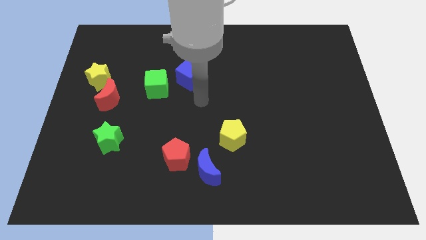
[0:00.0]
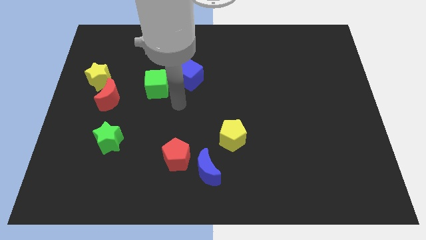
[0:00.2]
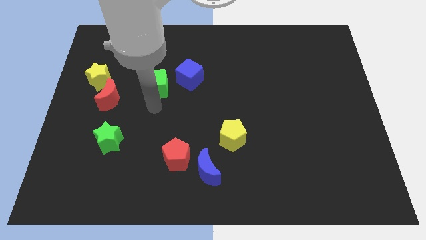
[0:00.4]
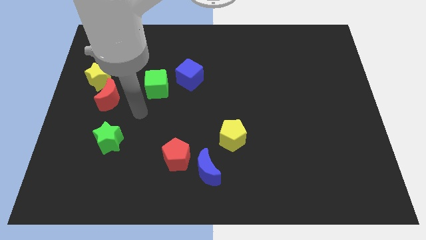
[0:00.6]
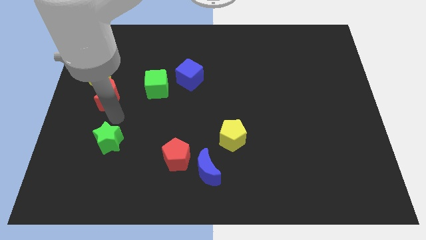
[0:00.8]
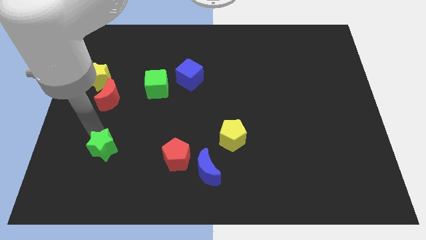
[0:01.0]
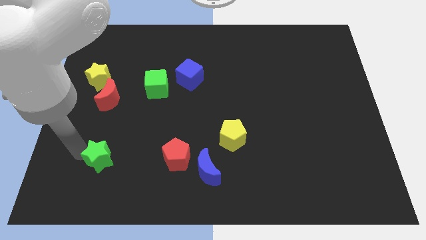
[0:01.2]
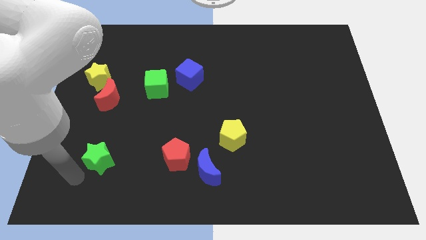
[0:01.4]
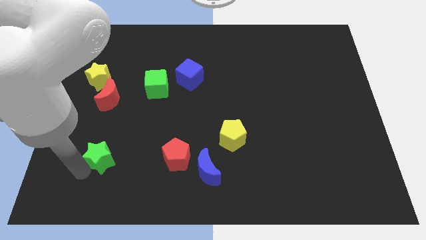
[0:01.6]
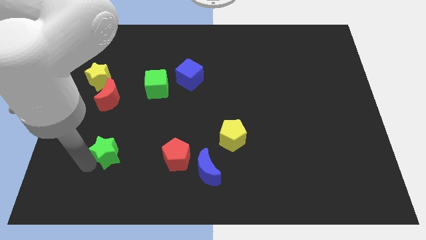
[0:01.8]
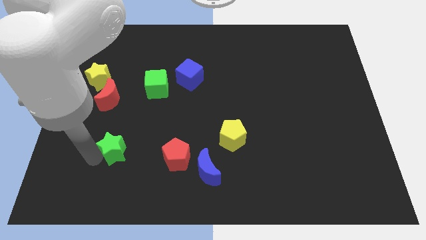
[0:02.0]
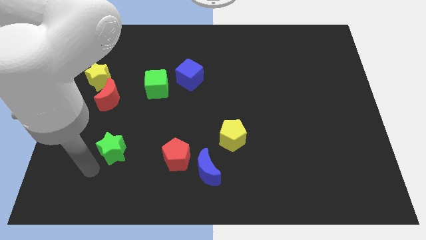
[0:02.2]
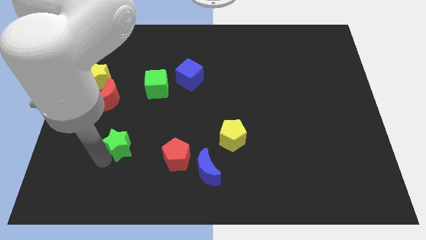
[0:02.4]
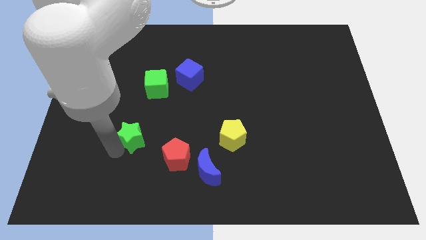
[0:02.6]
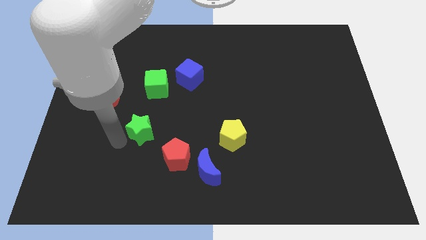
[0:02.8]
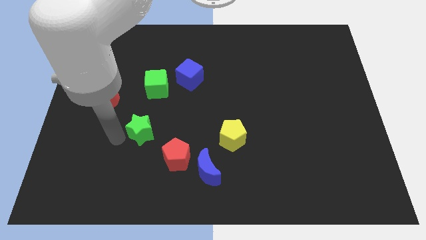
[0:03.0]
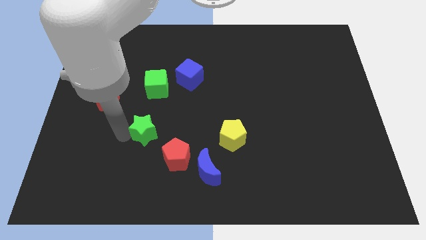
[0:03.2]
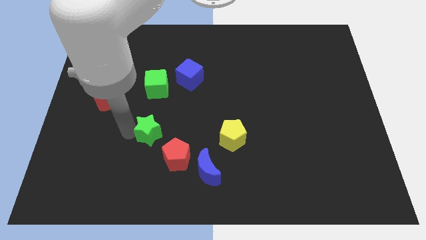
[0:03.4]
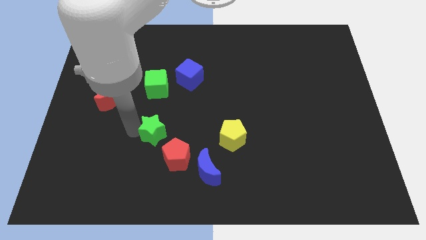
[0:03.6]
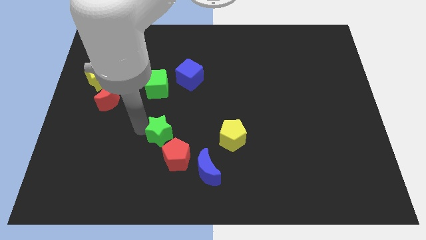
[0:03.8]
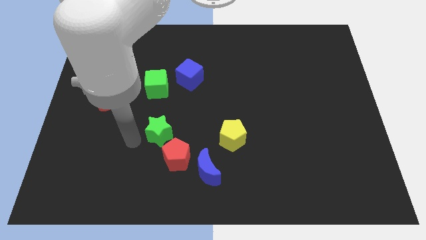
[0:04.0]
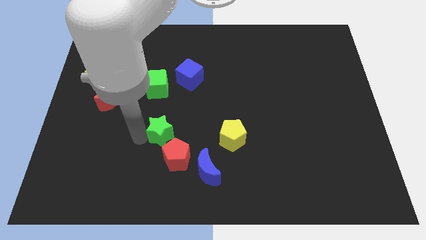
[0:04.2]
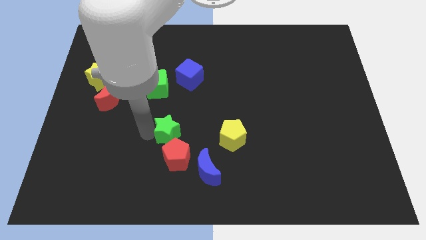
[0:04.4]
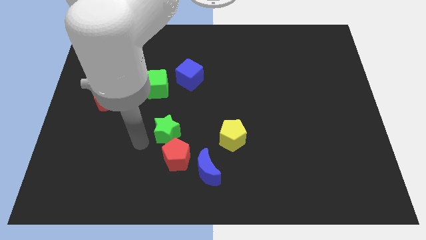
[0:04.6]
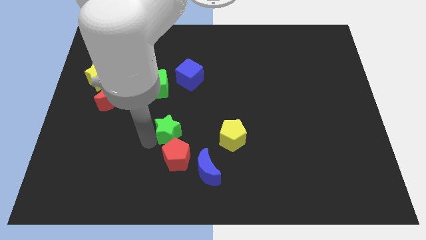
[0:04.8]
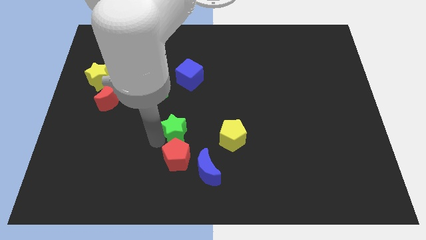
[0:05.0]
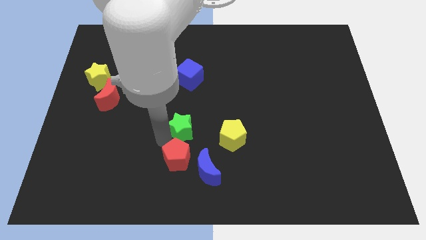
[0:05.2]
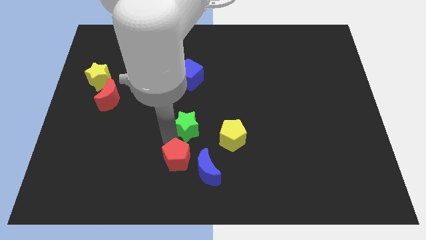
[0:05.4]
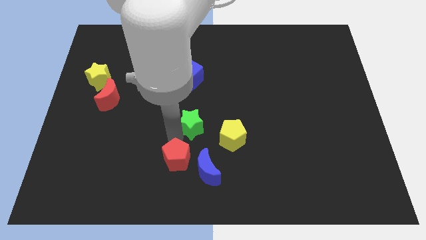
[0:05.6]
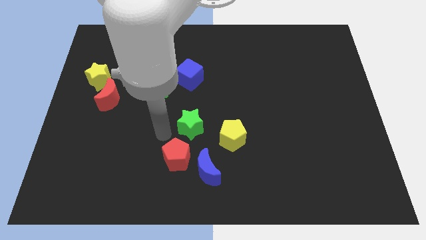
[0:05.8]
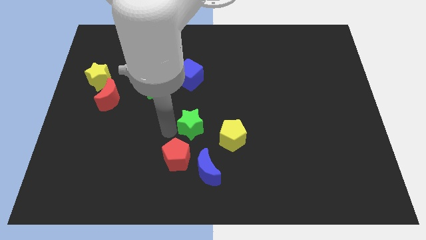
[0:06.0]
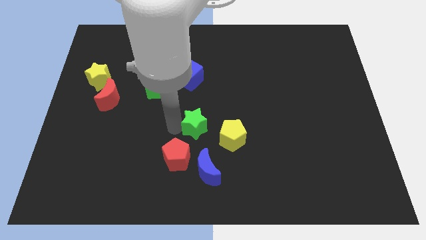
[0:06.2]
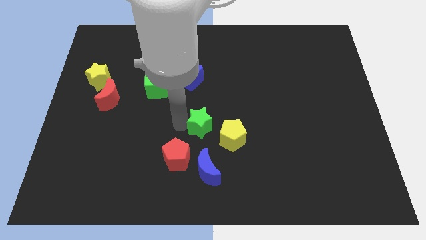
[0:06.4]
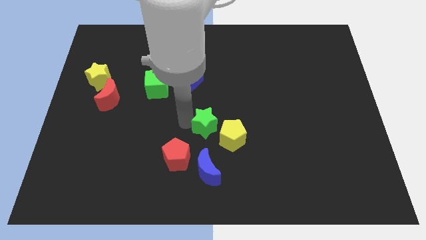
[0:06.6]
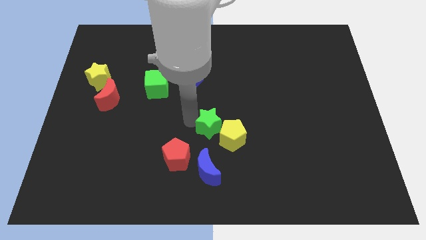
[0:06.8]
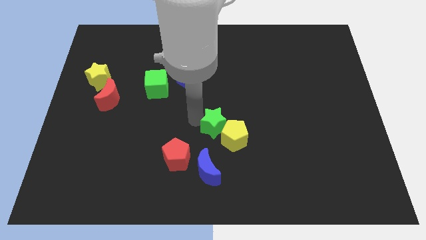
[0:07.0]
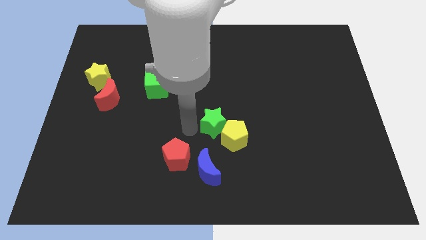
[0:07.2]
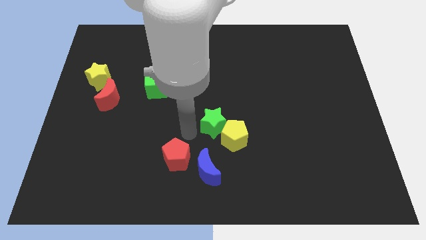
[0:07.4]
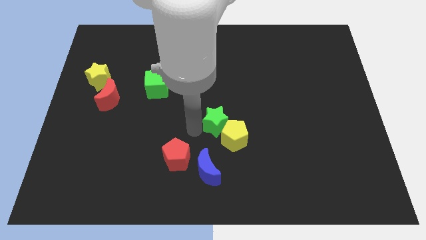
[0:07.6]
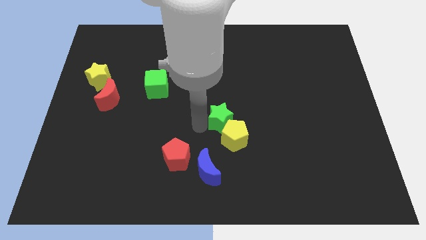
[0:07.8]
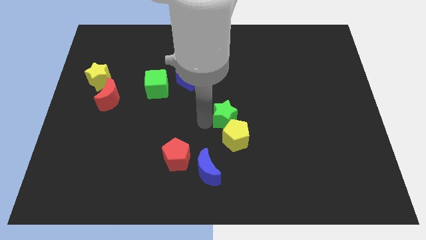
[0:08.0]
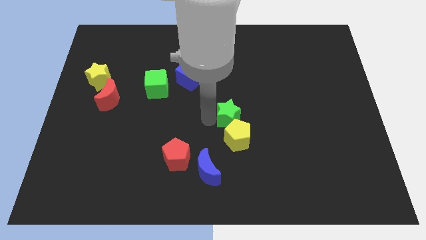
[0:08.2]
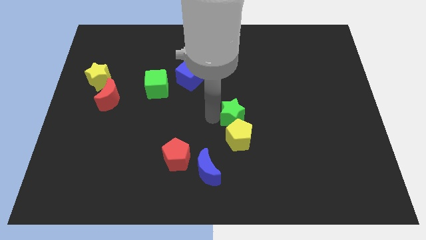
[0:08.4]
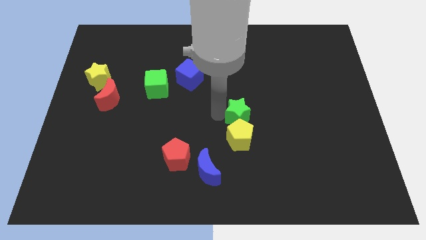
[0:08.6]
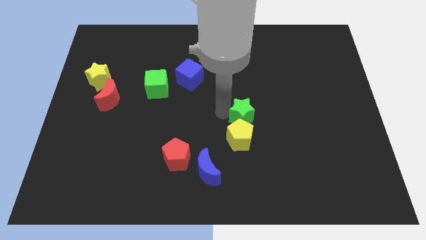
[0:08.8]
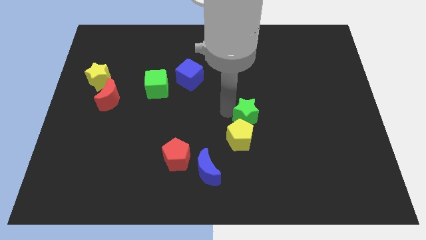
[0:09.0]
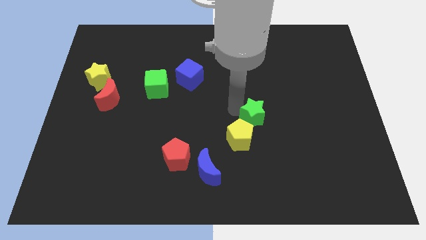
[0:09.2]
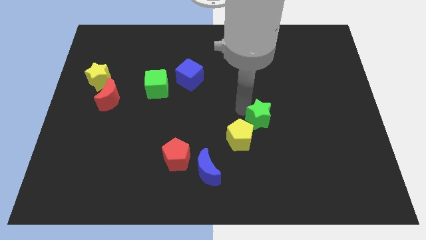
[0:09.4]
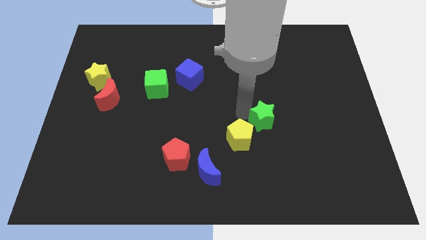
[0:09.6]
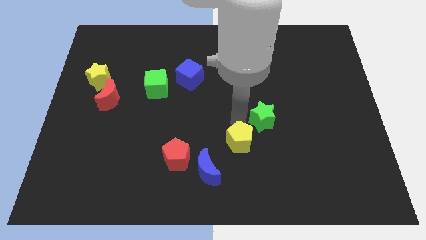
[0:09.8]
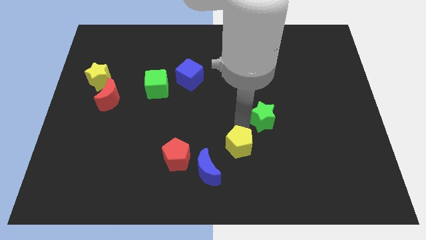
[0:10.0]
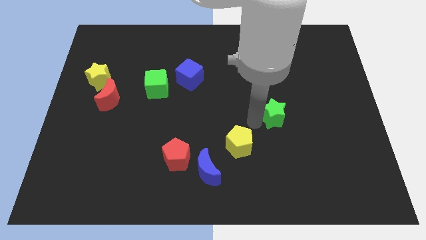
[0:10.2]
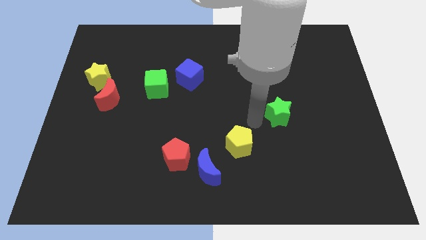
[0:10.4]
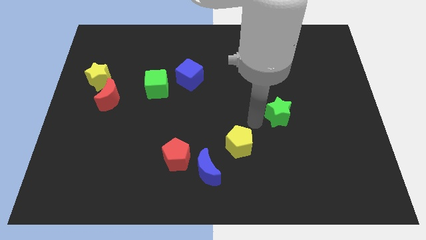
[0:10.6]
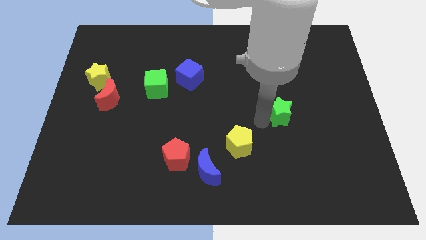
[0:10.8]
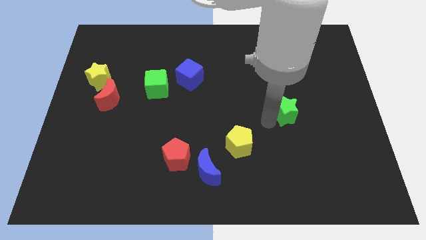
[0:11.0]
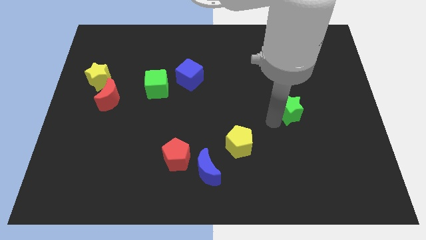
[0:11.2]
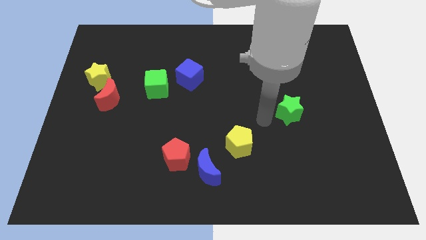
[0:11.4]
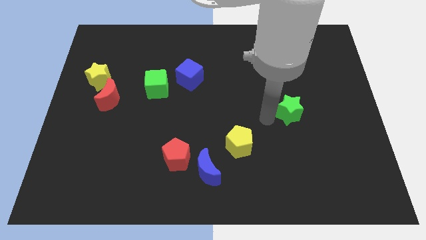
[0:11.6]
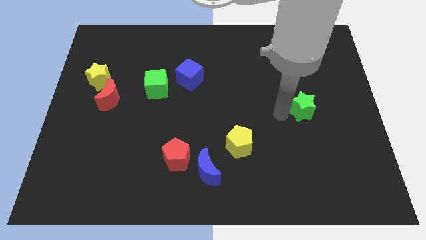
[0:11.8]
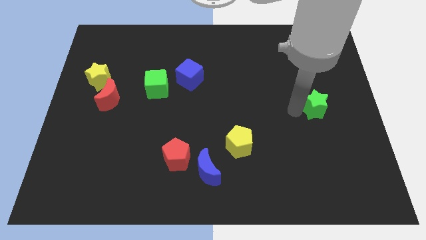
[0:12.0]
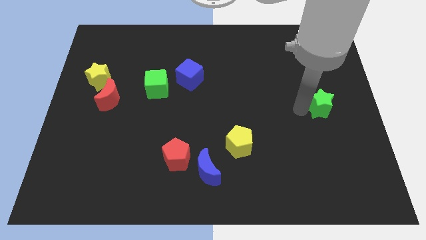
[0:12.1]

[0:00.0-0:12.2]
put the green star to the center right

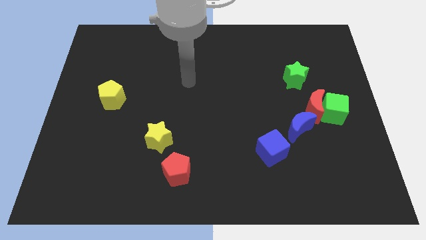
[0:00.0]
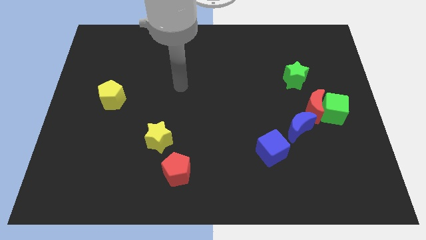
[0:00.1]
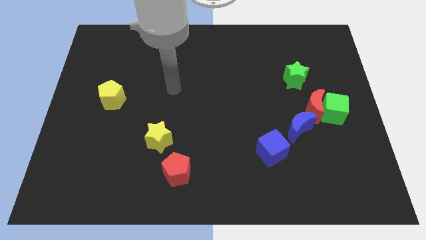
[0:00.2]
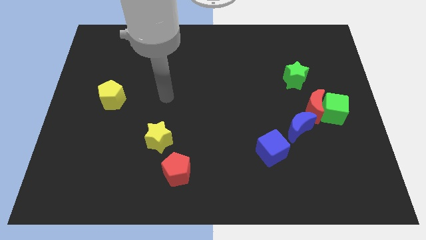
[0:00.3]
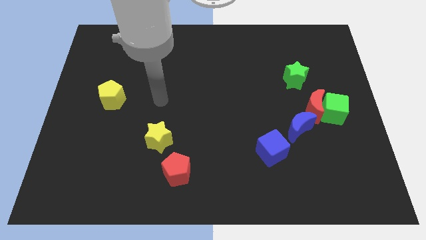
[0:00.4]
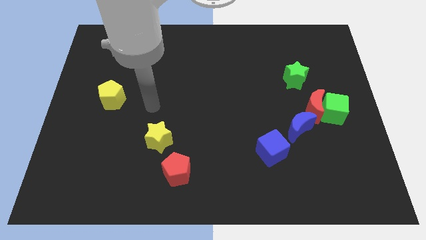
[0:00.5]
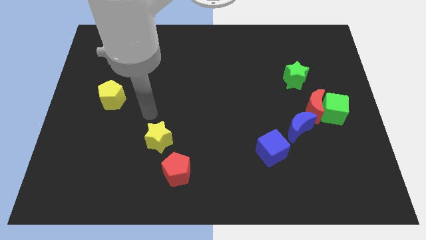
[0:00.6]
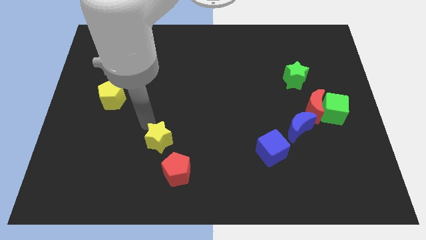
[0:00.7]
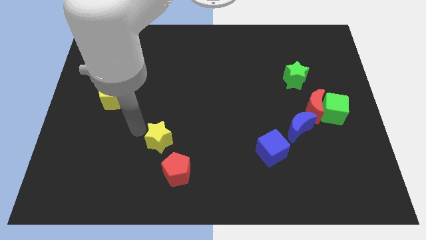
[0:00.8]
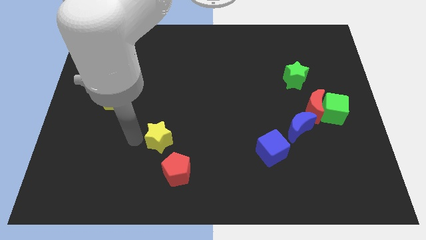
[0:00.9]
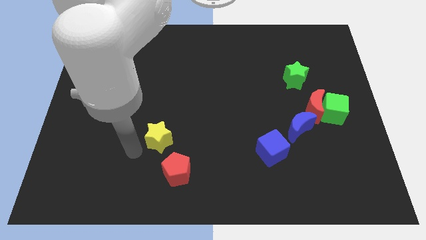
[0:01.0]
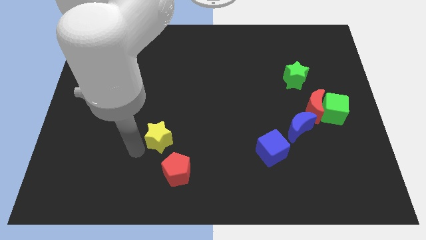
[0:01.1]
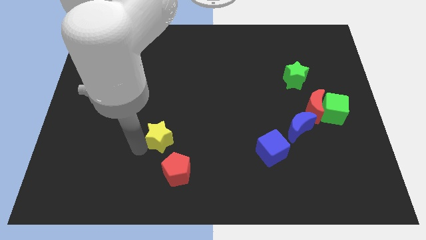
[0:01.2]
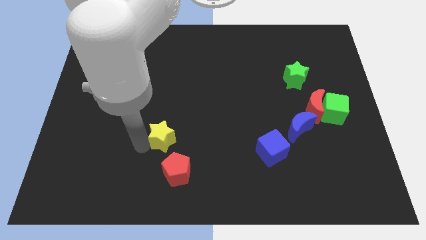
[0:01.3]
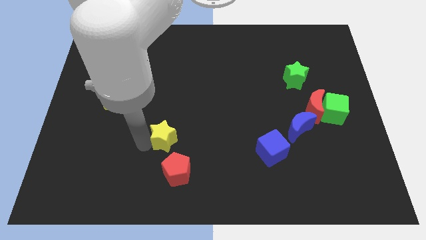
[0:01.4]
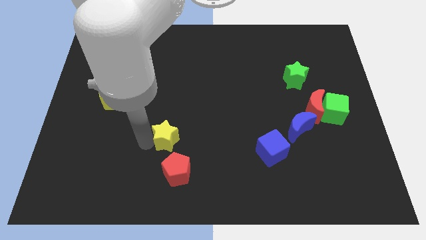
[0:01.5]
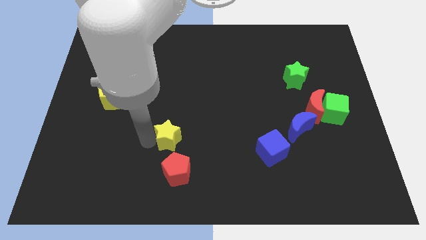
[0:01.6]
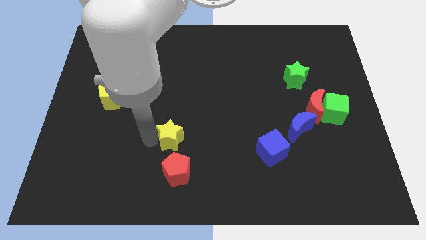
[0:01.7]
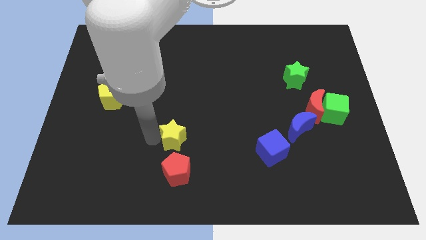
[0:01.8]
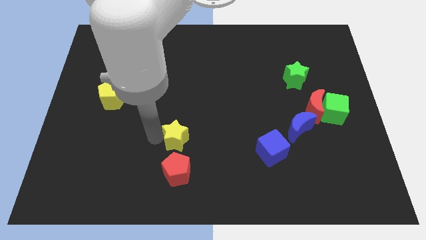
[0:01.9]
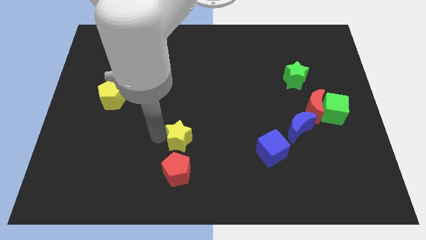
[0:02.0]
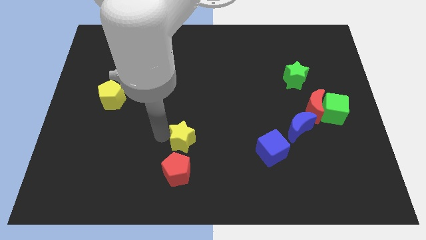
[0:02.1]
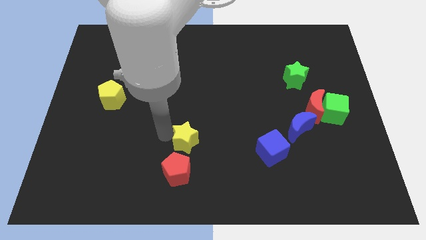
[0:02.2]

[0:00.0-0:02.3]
move the yellow star to the center
